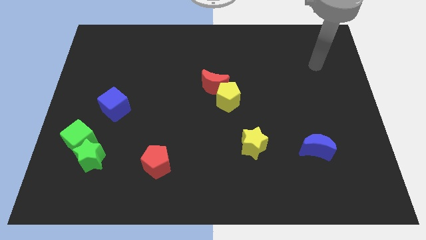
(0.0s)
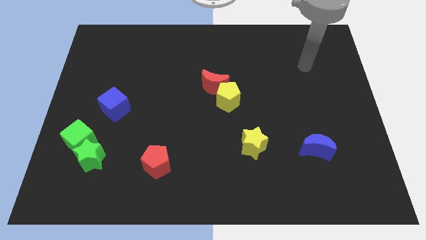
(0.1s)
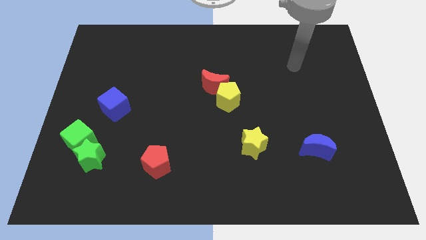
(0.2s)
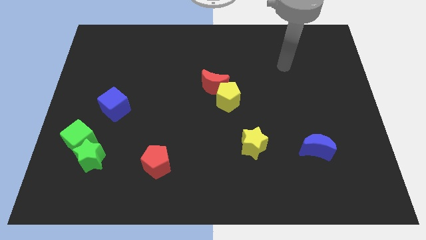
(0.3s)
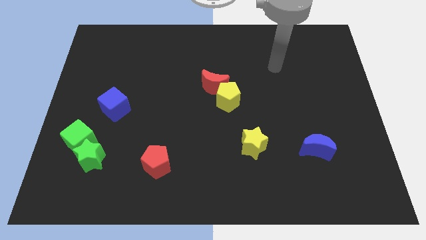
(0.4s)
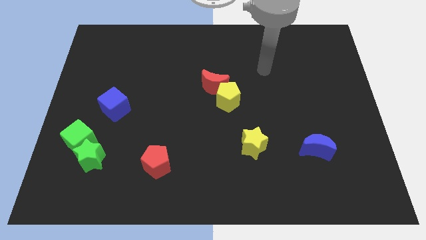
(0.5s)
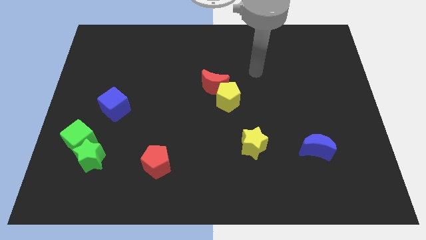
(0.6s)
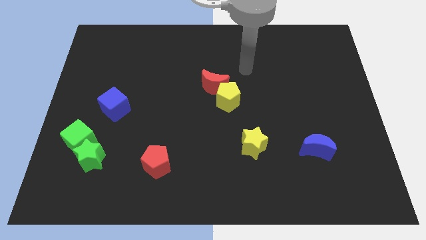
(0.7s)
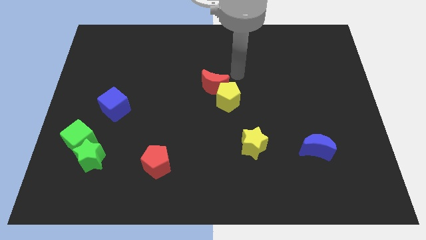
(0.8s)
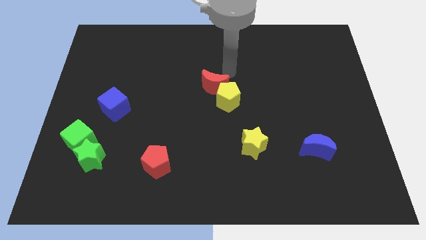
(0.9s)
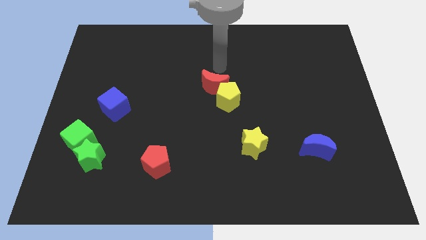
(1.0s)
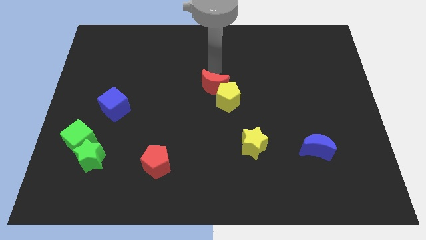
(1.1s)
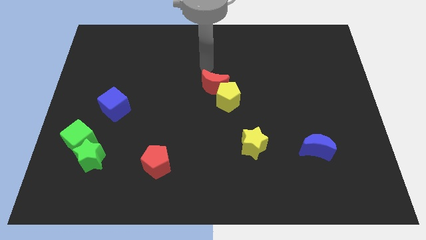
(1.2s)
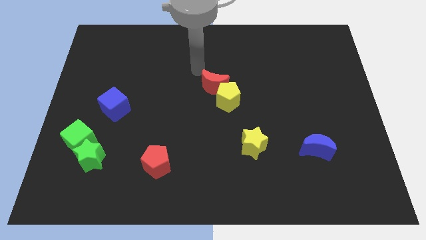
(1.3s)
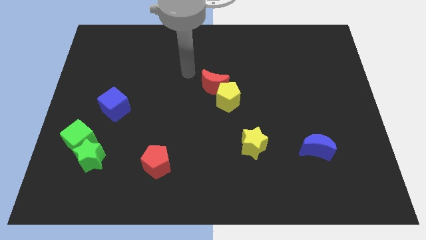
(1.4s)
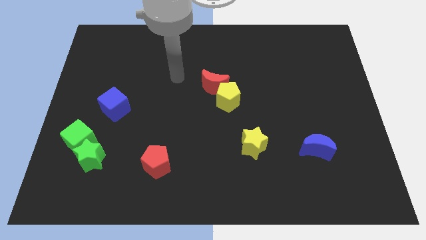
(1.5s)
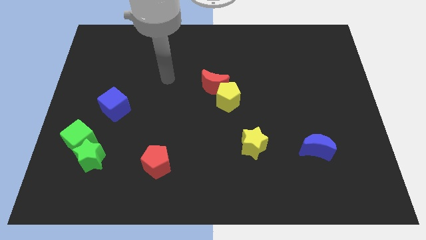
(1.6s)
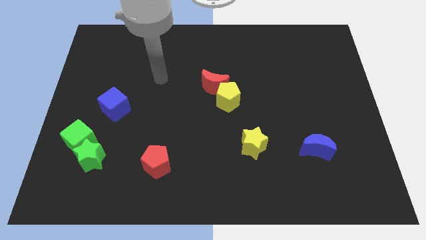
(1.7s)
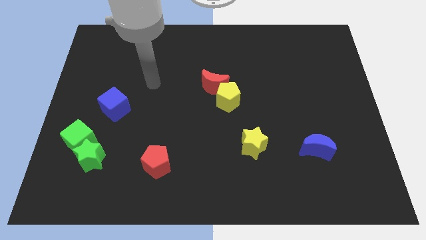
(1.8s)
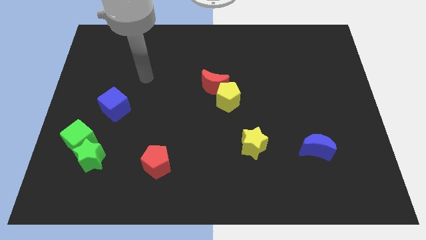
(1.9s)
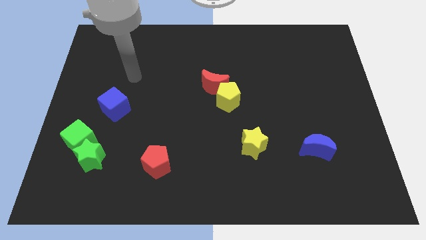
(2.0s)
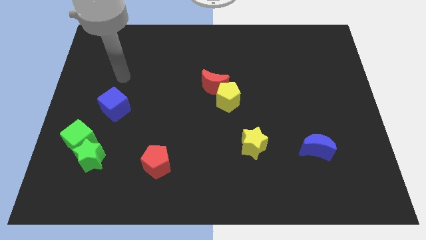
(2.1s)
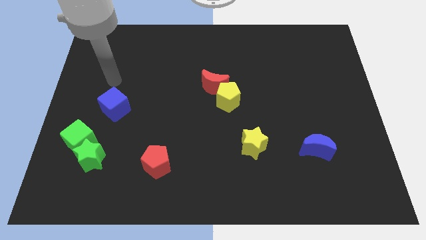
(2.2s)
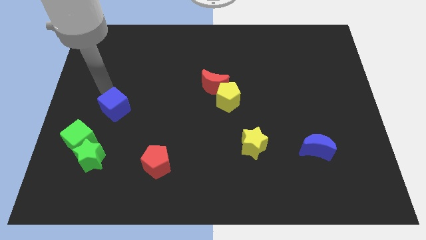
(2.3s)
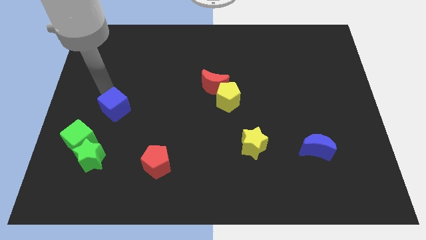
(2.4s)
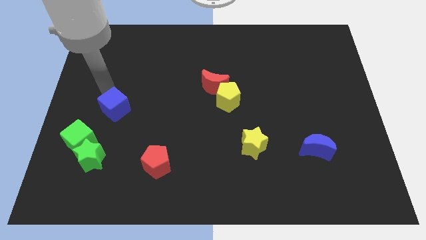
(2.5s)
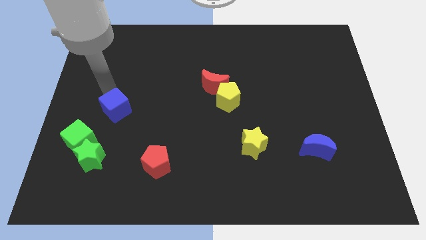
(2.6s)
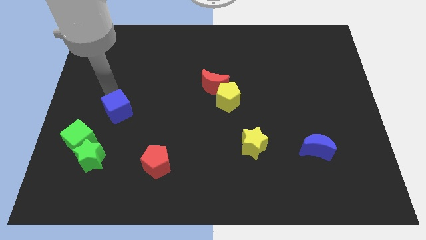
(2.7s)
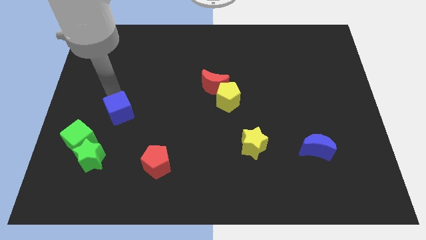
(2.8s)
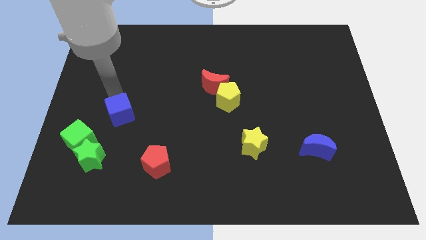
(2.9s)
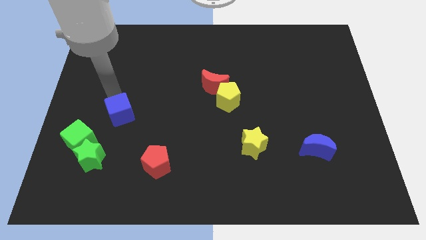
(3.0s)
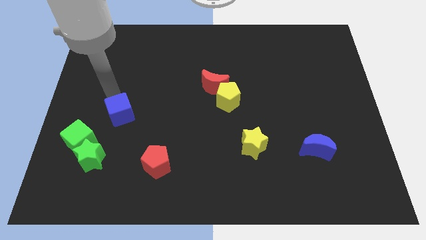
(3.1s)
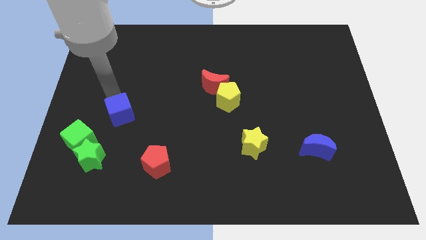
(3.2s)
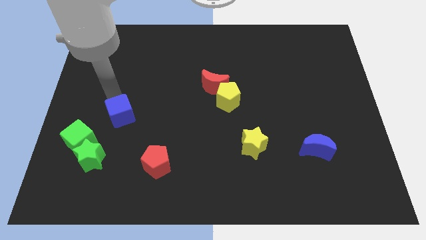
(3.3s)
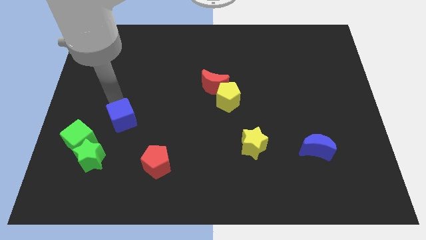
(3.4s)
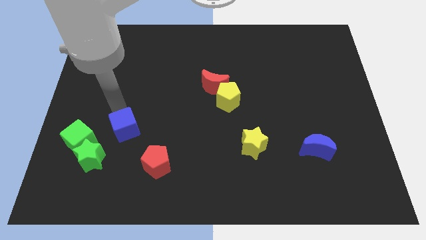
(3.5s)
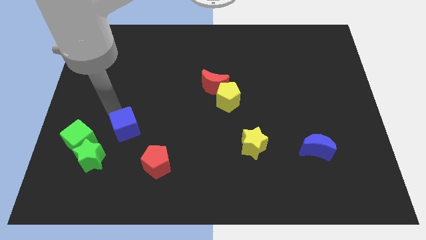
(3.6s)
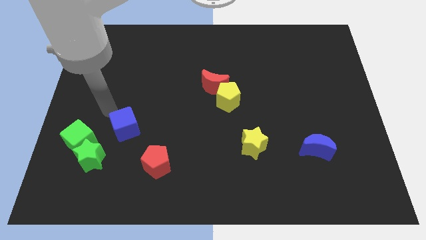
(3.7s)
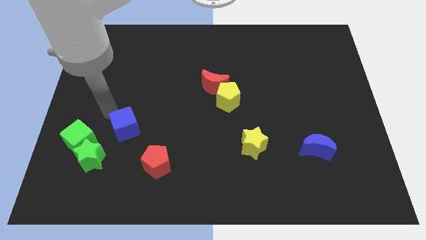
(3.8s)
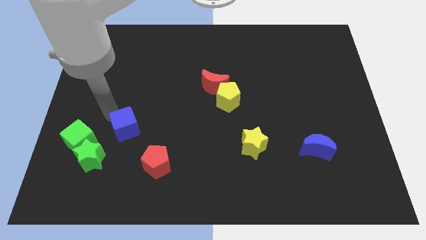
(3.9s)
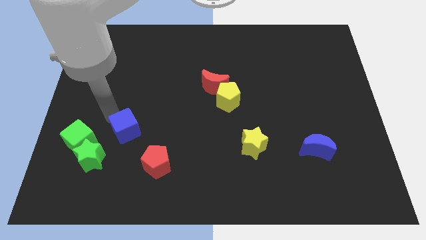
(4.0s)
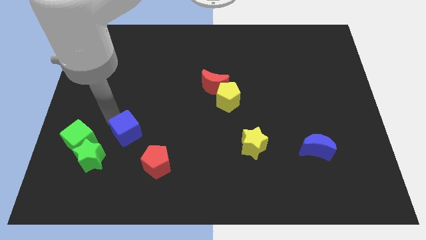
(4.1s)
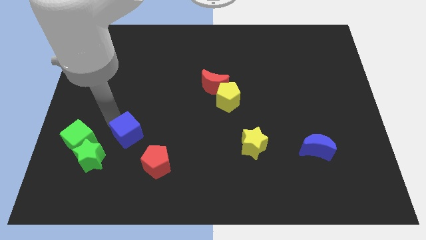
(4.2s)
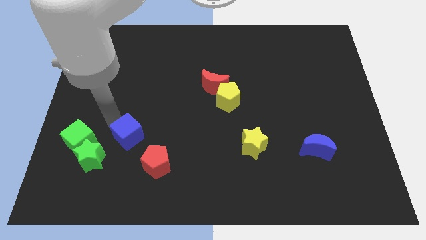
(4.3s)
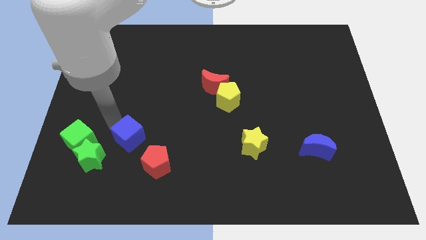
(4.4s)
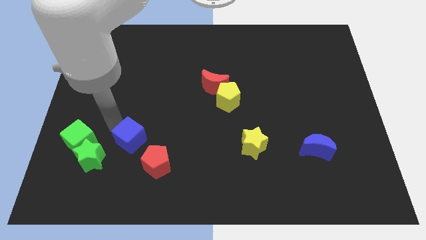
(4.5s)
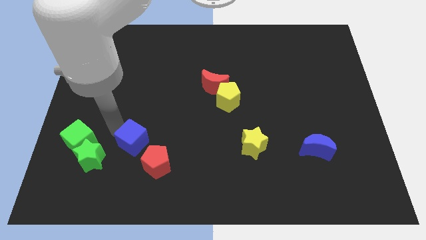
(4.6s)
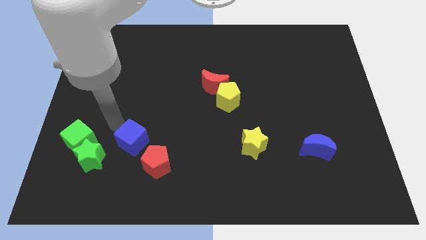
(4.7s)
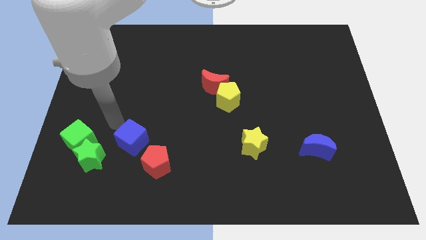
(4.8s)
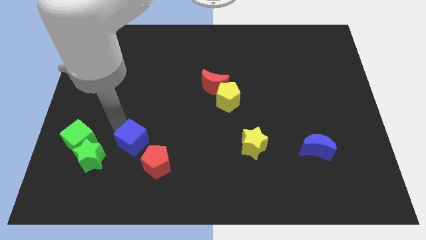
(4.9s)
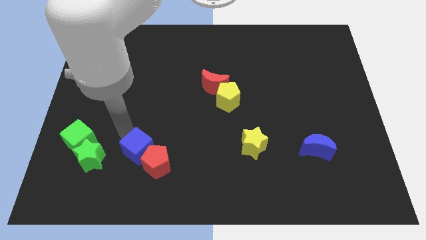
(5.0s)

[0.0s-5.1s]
push the blue cube next to the red pentagon

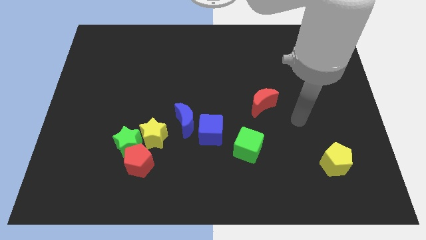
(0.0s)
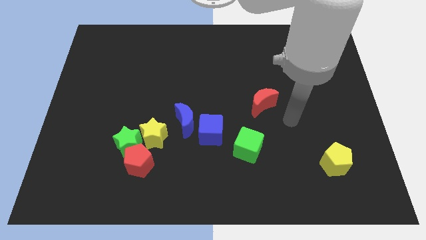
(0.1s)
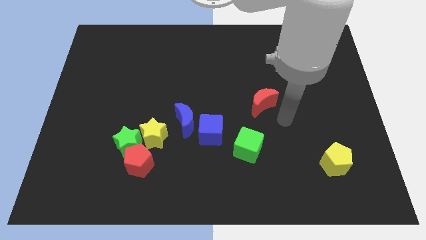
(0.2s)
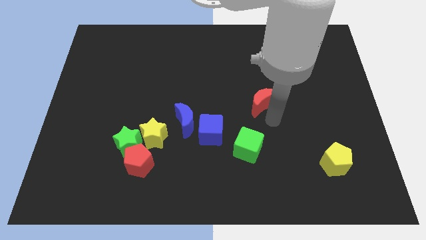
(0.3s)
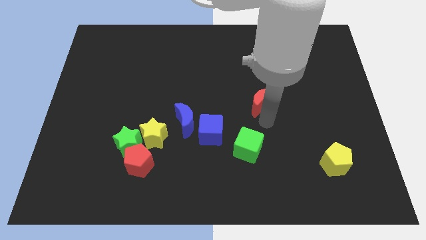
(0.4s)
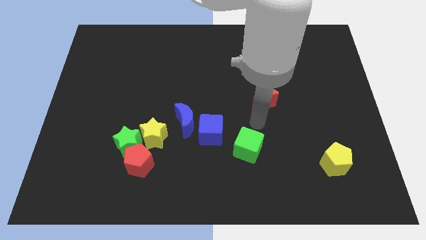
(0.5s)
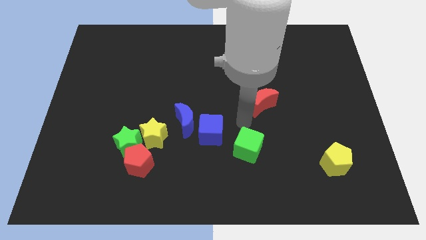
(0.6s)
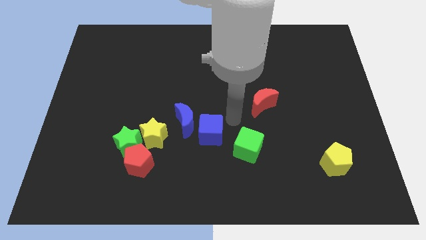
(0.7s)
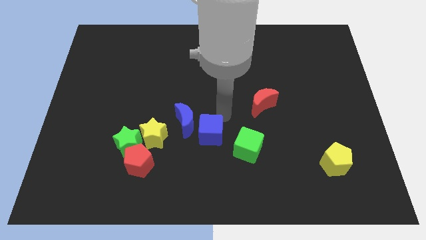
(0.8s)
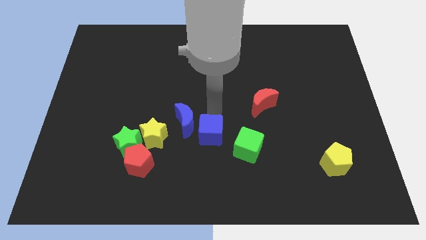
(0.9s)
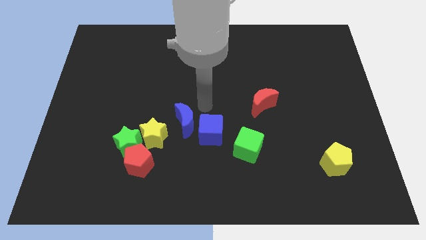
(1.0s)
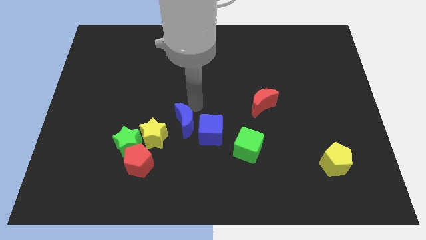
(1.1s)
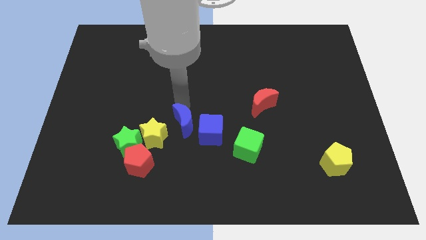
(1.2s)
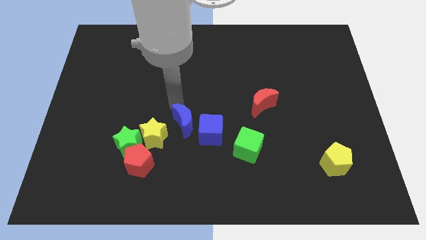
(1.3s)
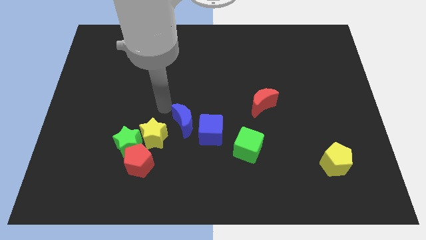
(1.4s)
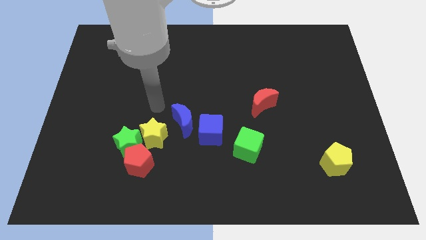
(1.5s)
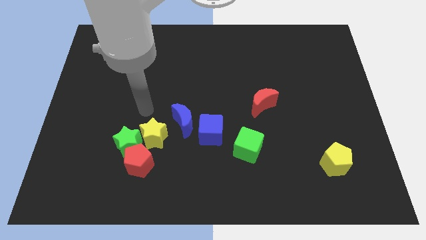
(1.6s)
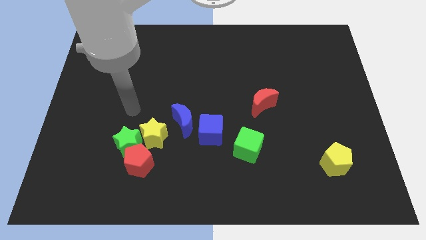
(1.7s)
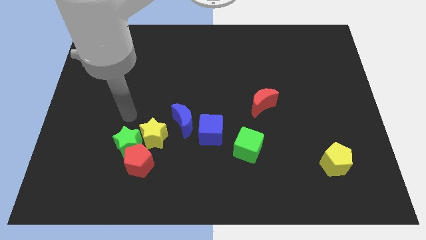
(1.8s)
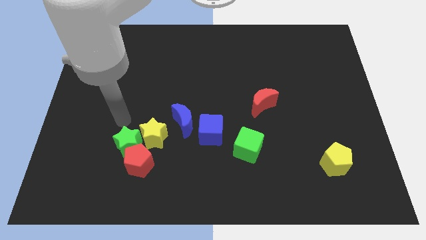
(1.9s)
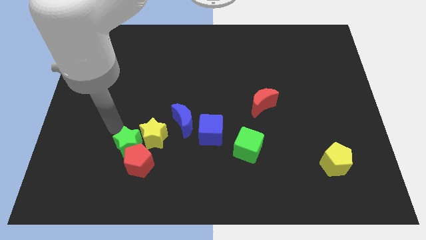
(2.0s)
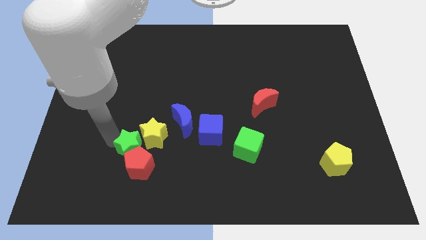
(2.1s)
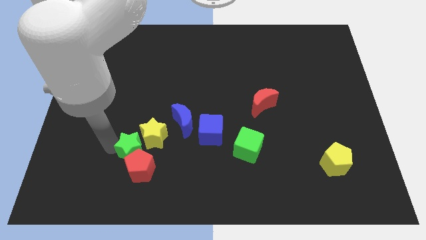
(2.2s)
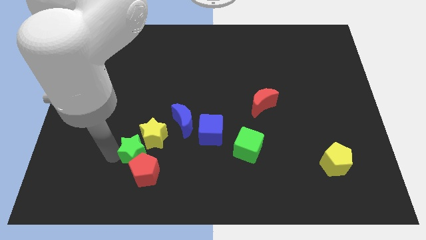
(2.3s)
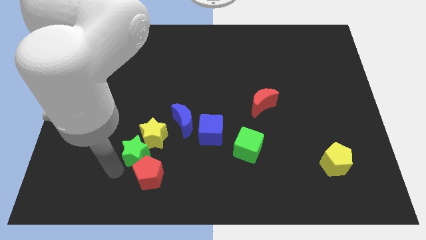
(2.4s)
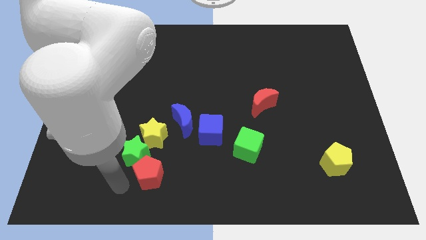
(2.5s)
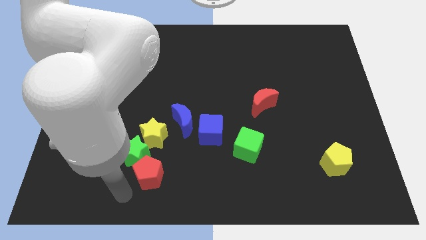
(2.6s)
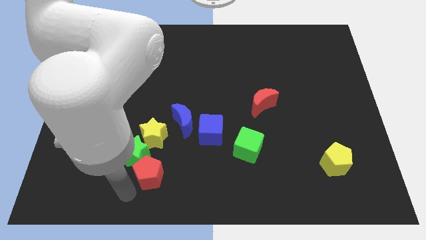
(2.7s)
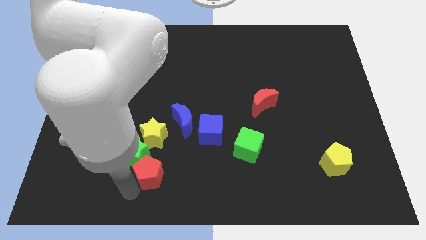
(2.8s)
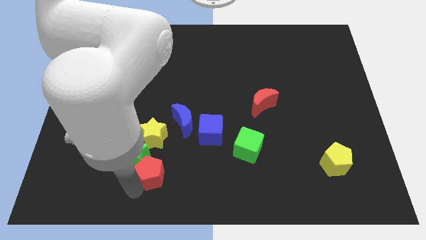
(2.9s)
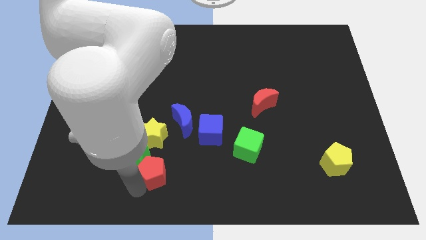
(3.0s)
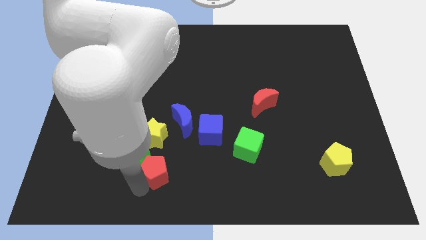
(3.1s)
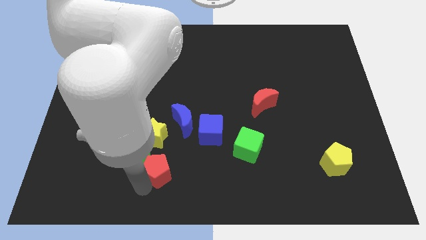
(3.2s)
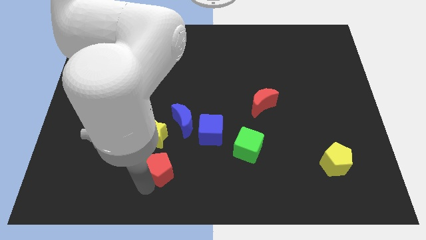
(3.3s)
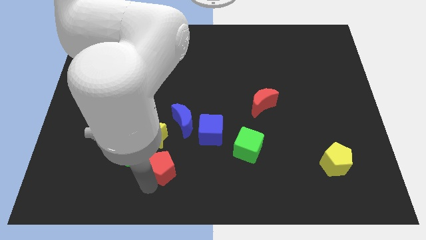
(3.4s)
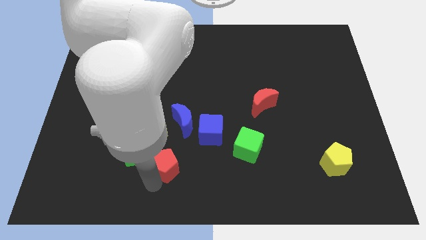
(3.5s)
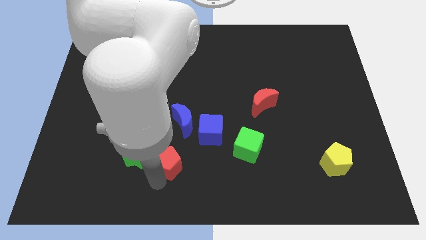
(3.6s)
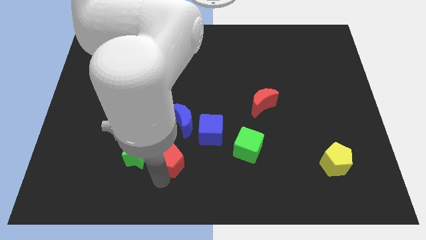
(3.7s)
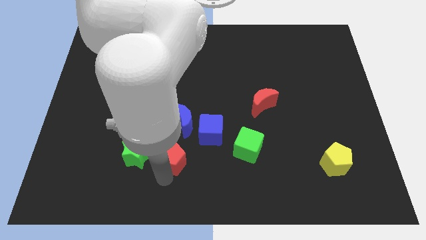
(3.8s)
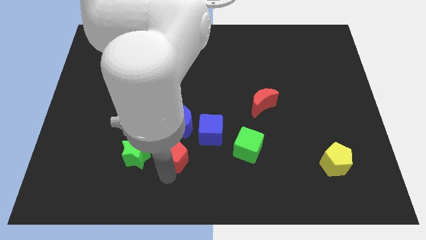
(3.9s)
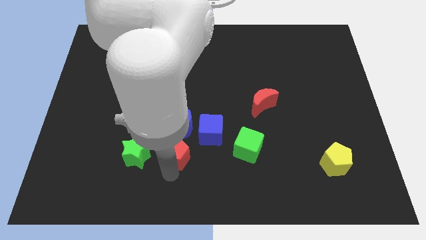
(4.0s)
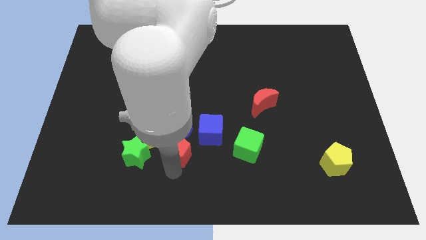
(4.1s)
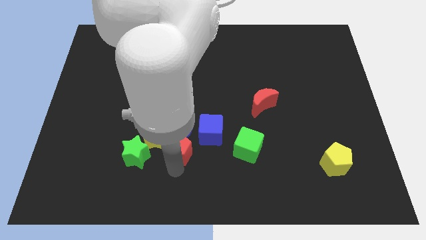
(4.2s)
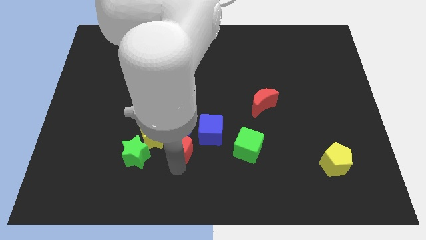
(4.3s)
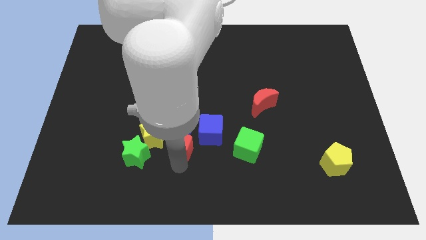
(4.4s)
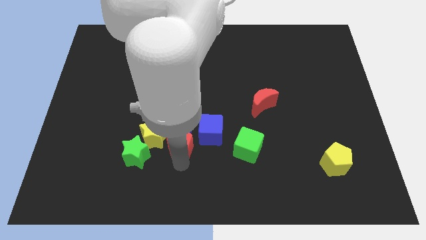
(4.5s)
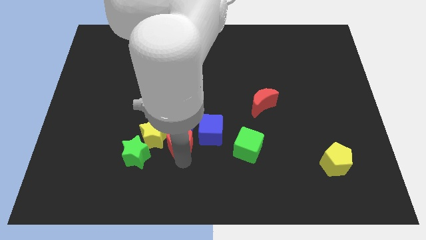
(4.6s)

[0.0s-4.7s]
put the red pentagon towards the blue moon
